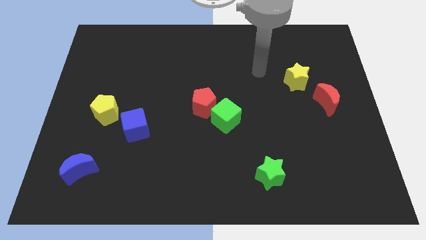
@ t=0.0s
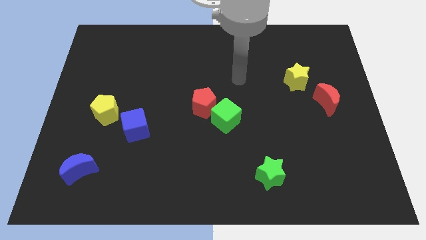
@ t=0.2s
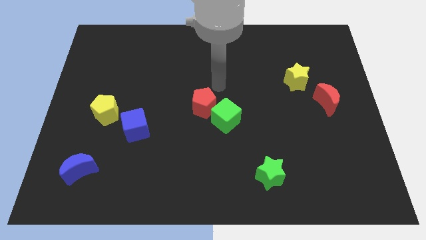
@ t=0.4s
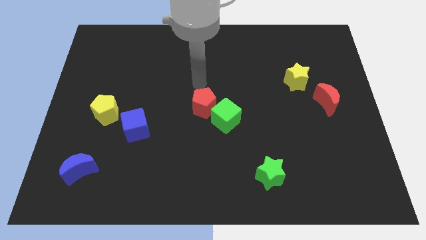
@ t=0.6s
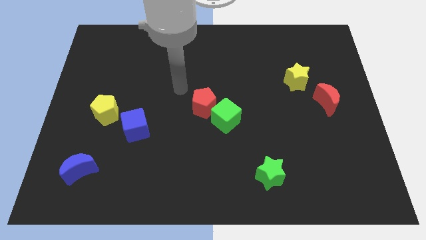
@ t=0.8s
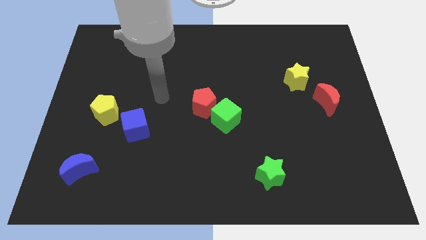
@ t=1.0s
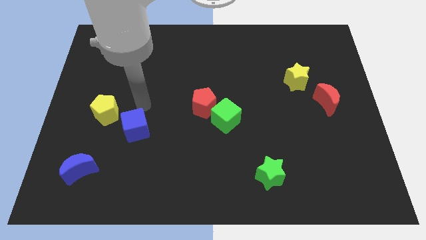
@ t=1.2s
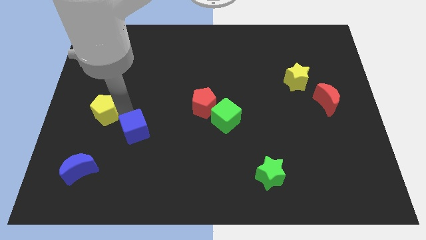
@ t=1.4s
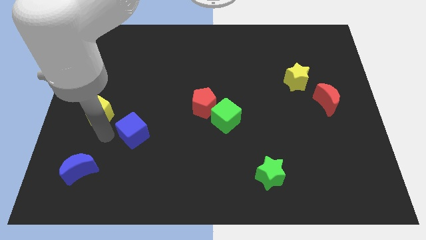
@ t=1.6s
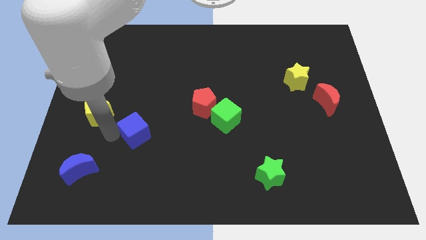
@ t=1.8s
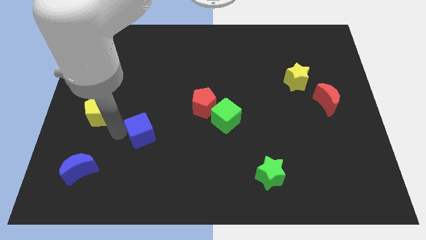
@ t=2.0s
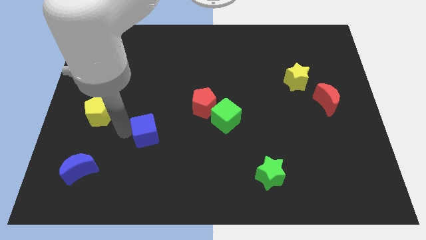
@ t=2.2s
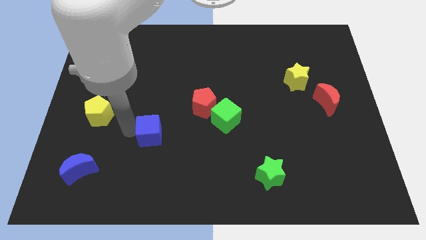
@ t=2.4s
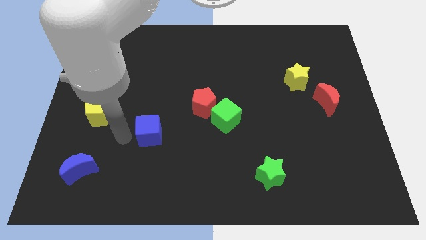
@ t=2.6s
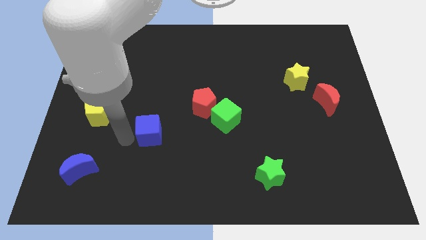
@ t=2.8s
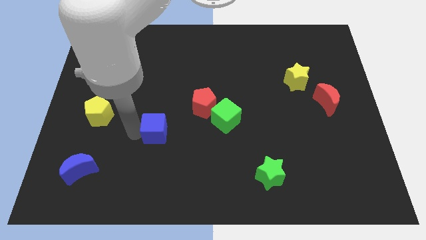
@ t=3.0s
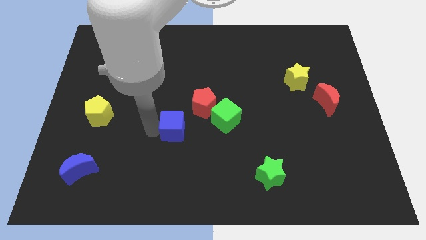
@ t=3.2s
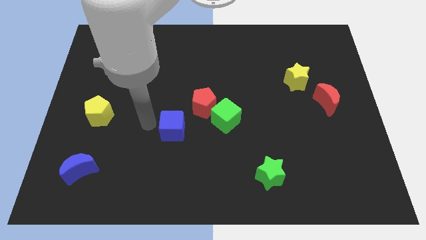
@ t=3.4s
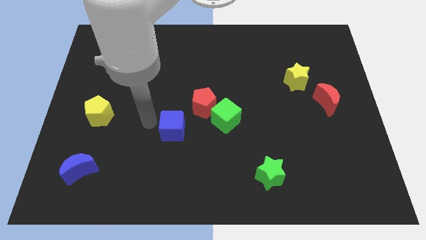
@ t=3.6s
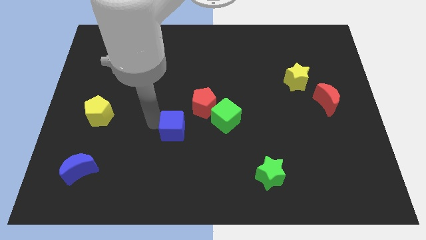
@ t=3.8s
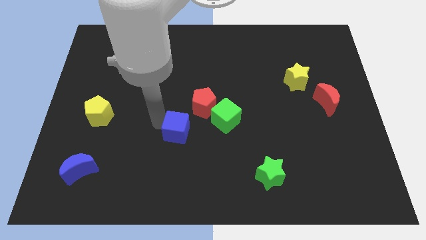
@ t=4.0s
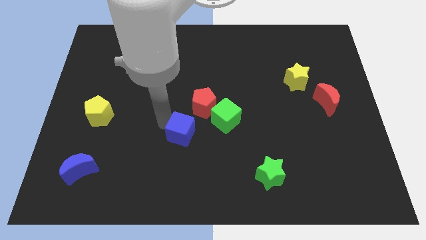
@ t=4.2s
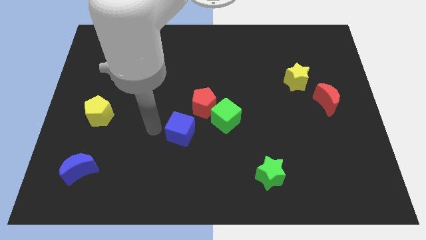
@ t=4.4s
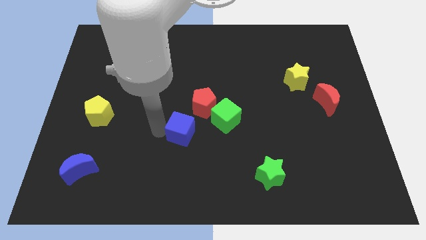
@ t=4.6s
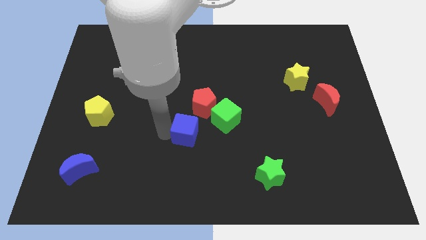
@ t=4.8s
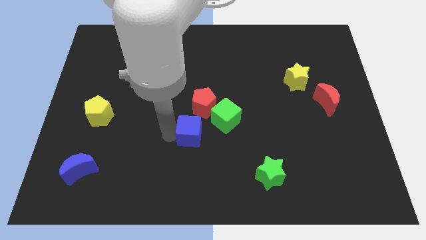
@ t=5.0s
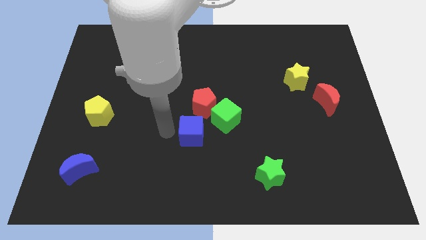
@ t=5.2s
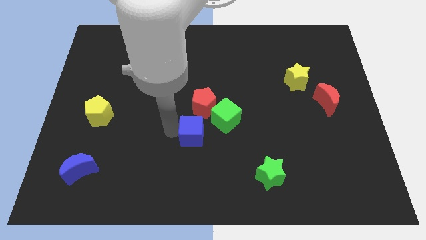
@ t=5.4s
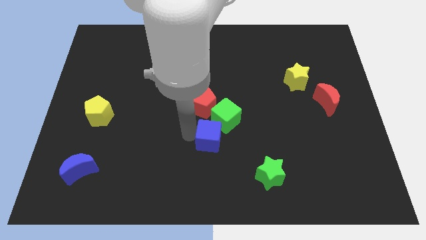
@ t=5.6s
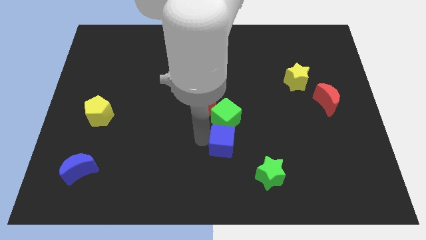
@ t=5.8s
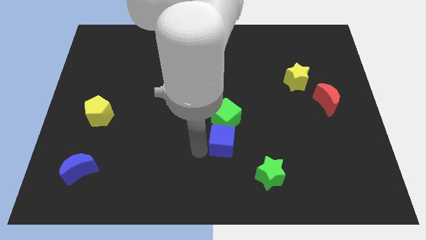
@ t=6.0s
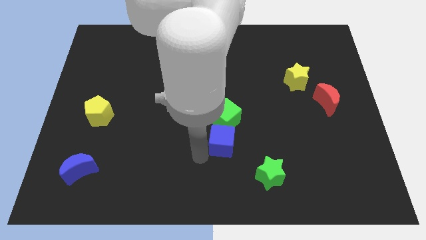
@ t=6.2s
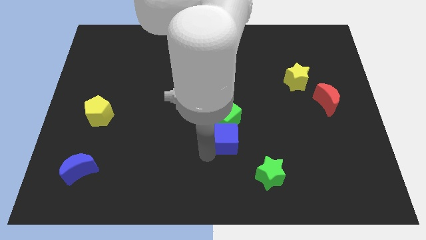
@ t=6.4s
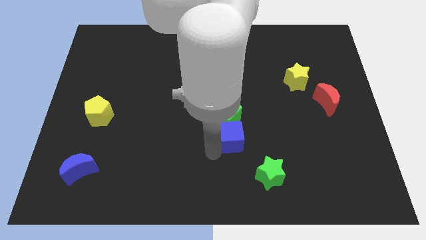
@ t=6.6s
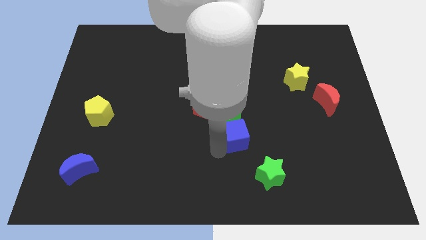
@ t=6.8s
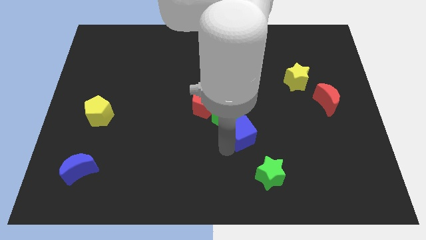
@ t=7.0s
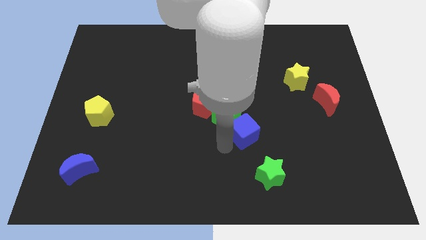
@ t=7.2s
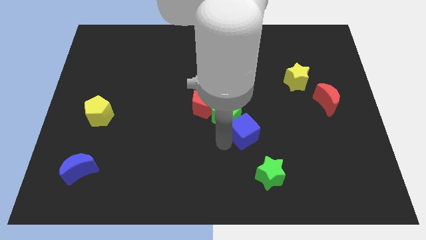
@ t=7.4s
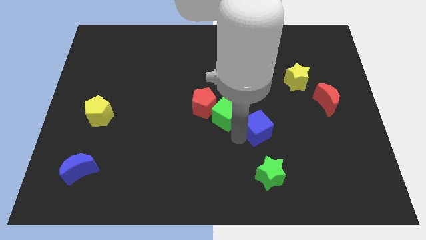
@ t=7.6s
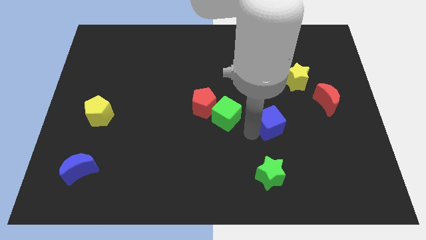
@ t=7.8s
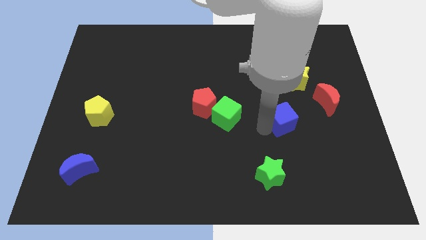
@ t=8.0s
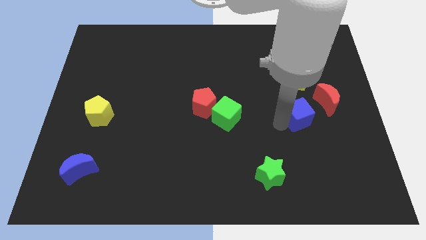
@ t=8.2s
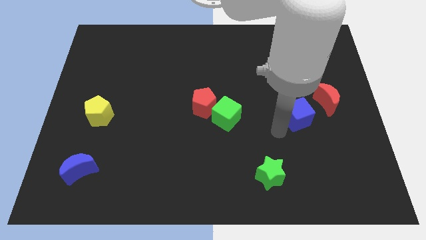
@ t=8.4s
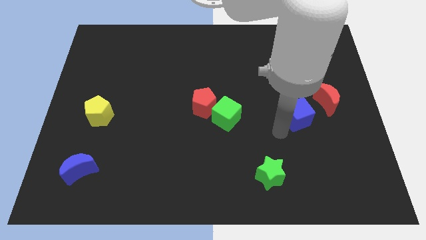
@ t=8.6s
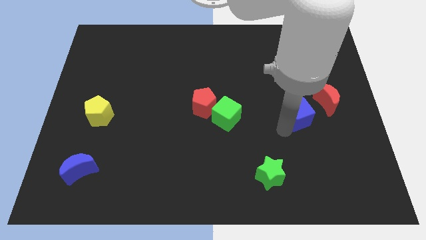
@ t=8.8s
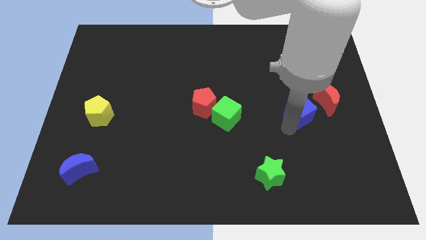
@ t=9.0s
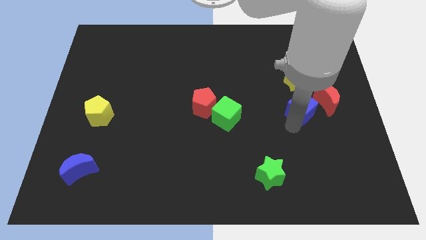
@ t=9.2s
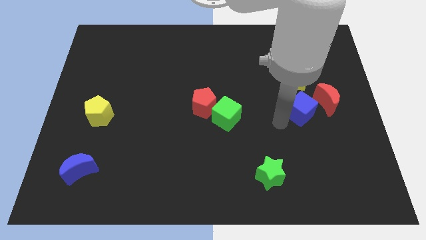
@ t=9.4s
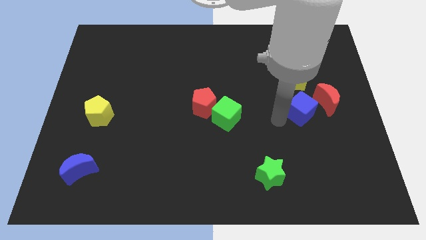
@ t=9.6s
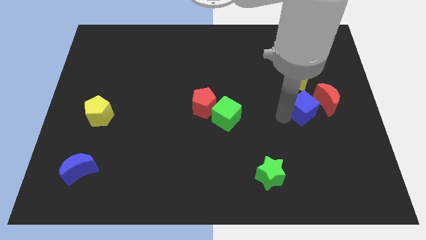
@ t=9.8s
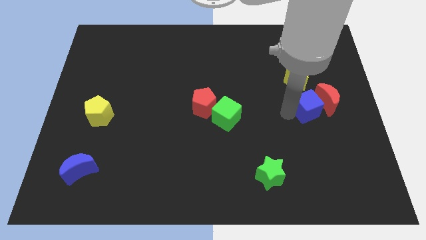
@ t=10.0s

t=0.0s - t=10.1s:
put the blue cube towards the red moon

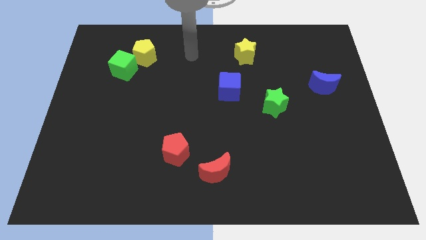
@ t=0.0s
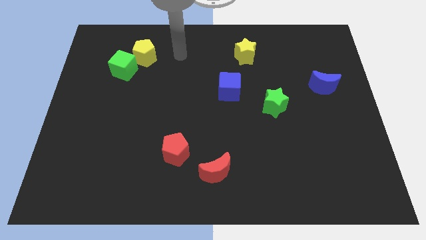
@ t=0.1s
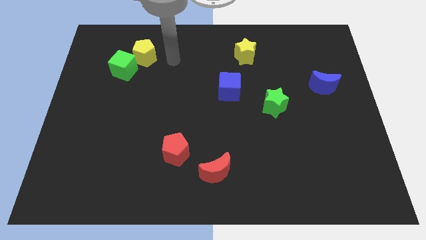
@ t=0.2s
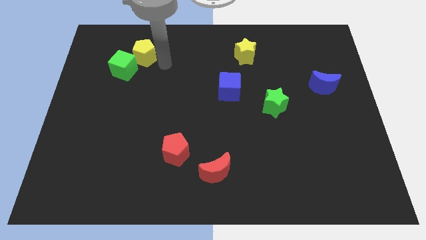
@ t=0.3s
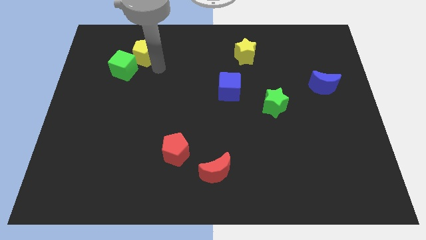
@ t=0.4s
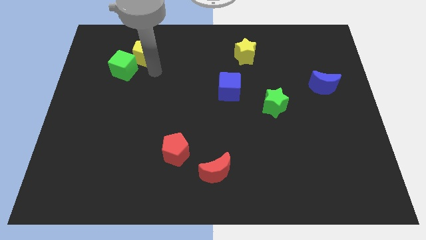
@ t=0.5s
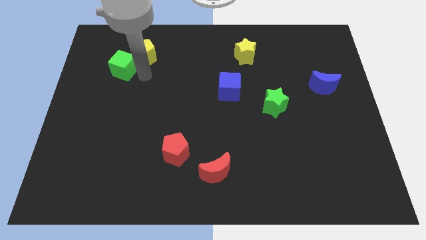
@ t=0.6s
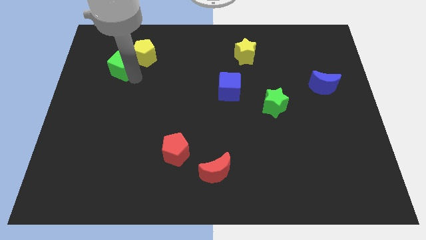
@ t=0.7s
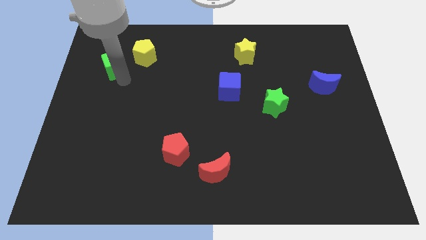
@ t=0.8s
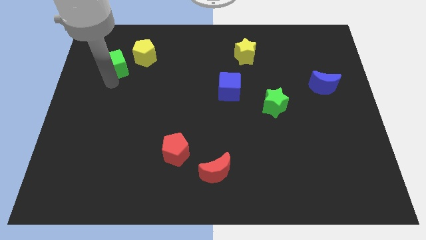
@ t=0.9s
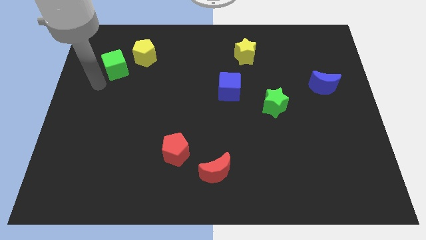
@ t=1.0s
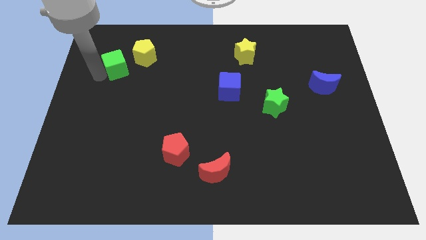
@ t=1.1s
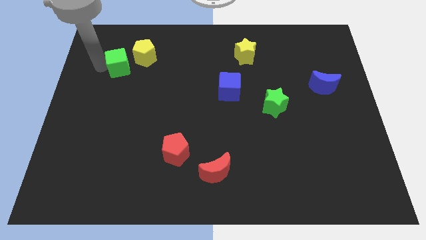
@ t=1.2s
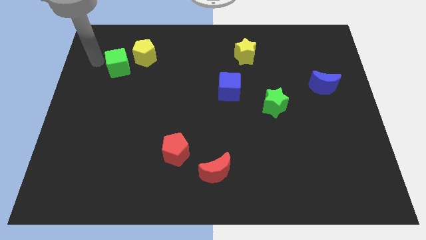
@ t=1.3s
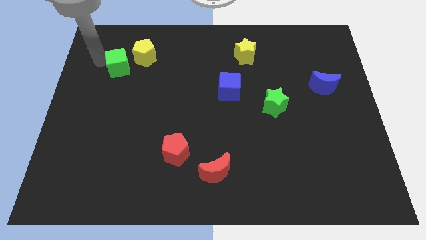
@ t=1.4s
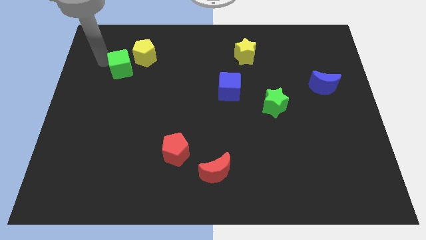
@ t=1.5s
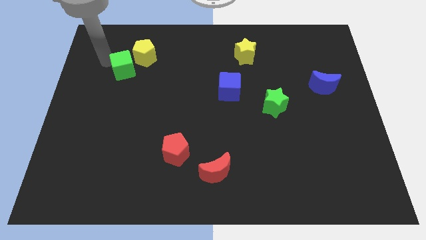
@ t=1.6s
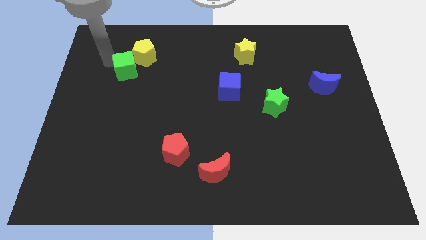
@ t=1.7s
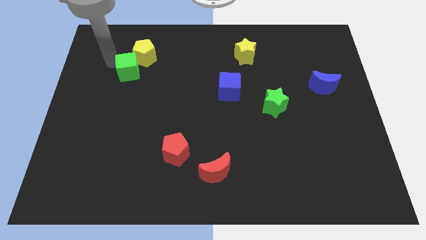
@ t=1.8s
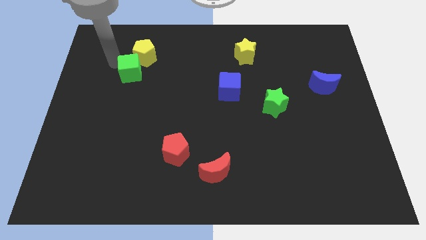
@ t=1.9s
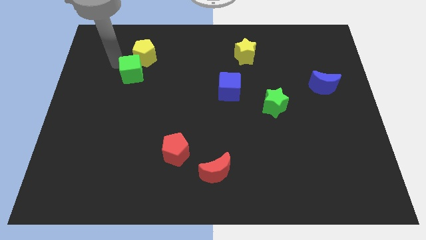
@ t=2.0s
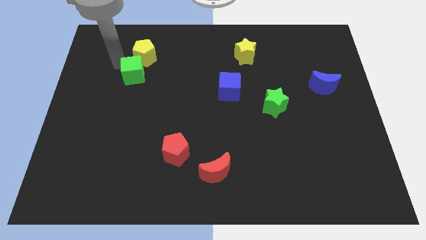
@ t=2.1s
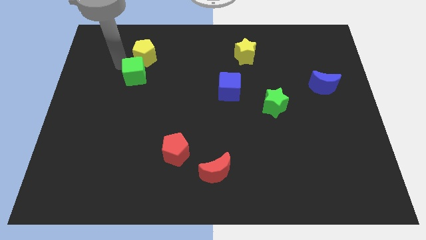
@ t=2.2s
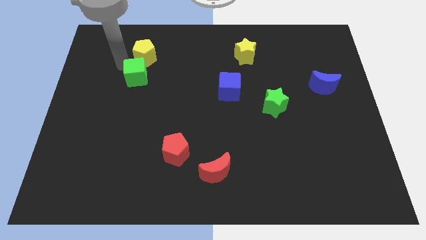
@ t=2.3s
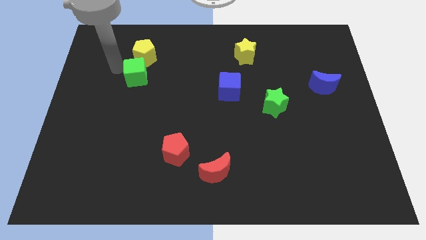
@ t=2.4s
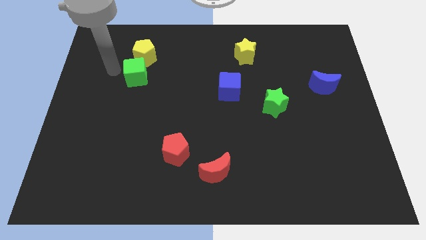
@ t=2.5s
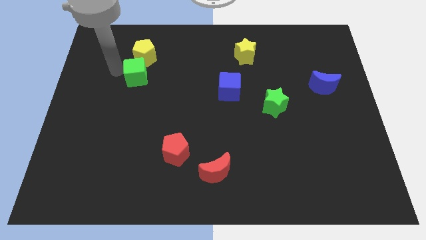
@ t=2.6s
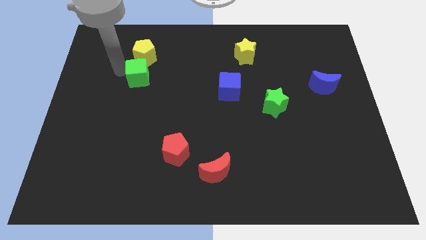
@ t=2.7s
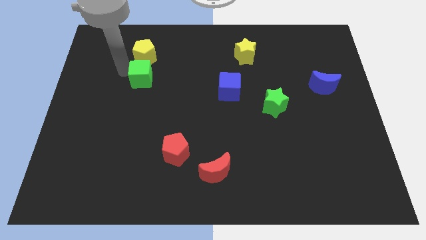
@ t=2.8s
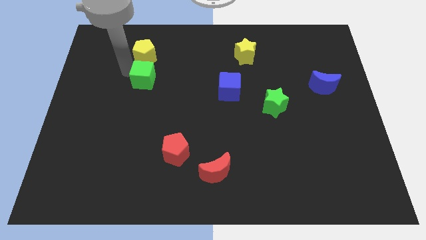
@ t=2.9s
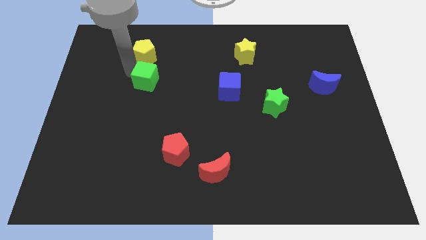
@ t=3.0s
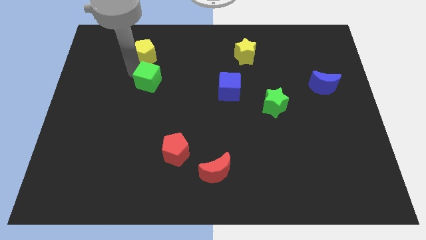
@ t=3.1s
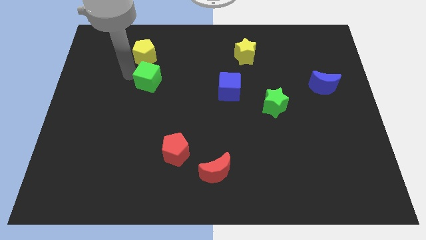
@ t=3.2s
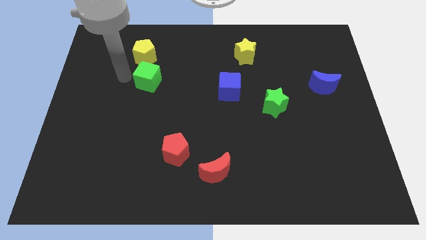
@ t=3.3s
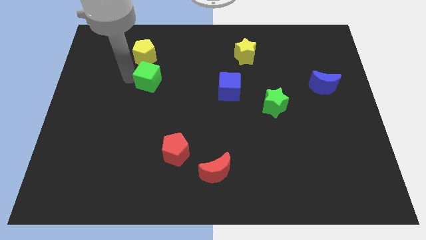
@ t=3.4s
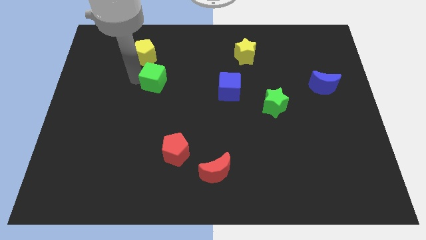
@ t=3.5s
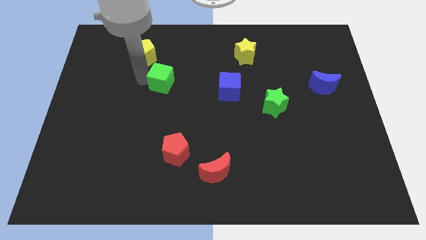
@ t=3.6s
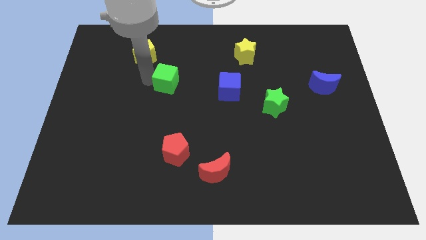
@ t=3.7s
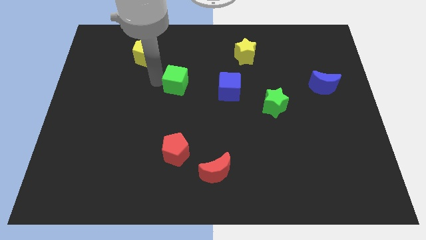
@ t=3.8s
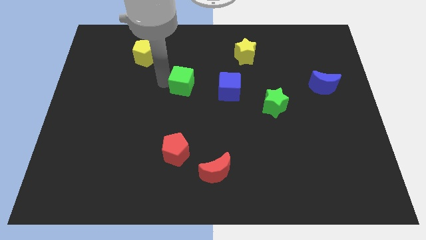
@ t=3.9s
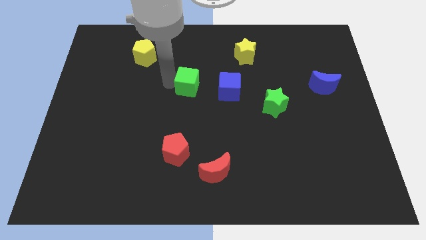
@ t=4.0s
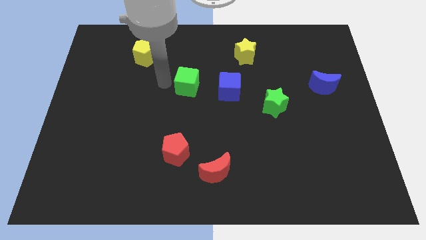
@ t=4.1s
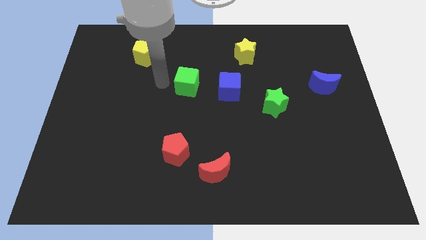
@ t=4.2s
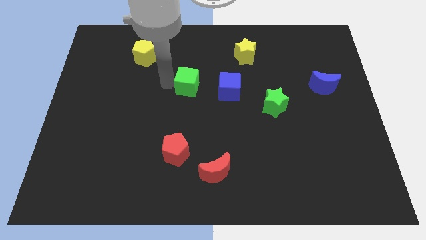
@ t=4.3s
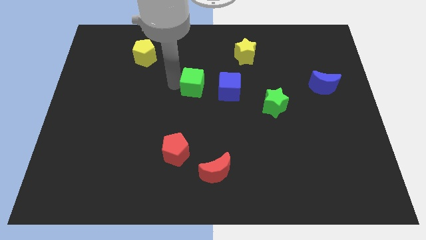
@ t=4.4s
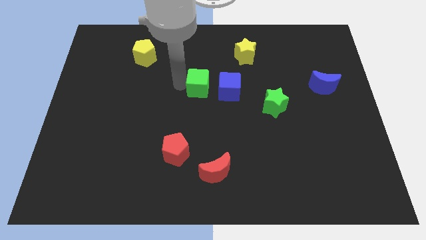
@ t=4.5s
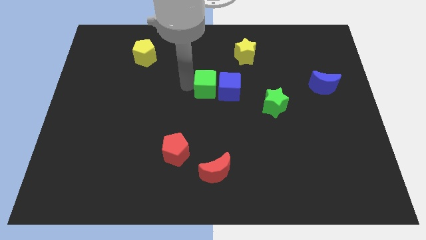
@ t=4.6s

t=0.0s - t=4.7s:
push the green cube next to the blue cube
